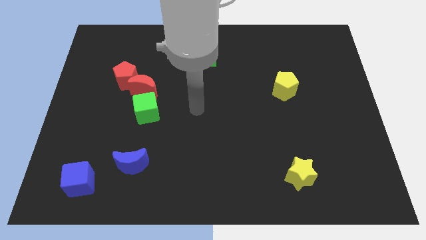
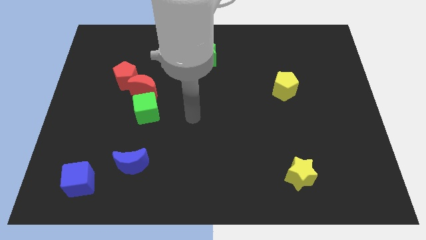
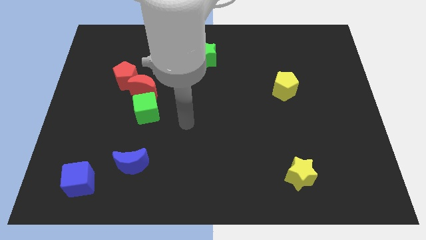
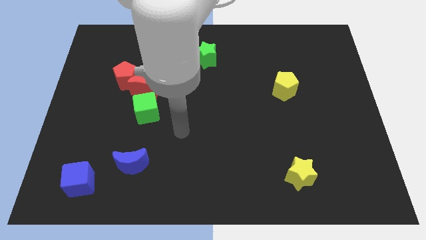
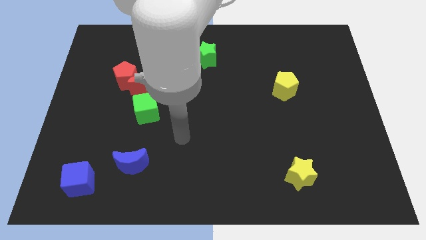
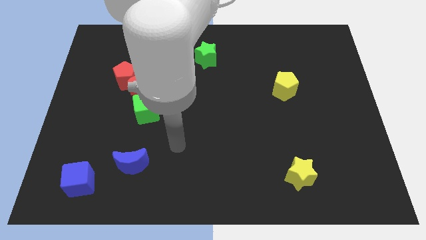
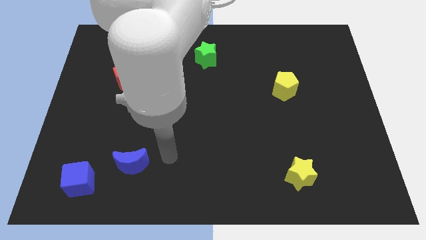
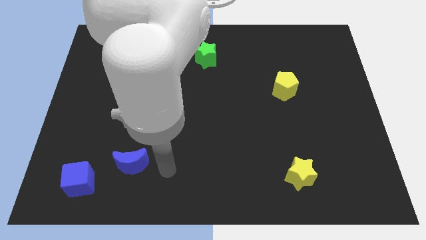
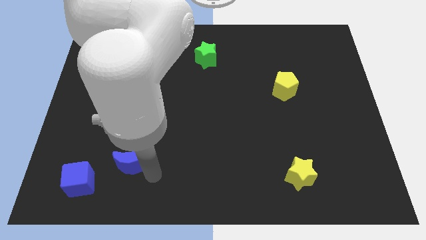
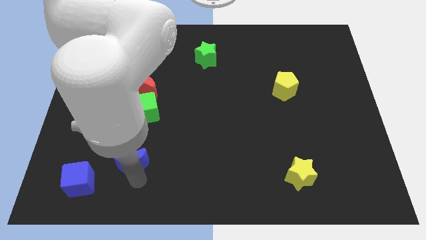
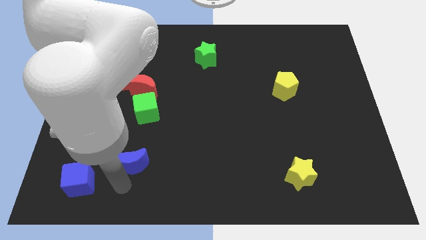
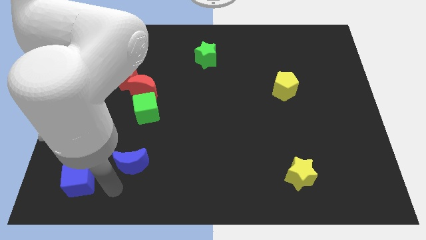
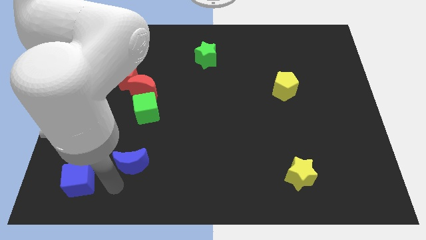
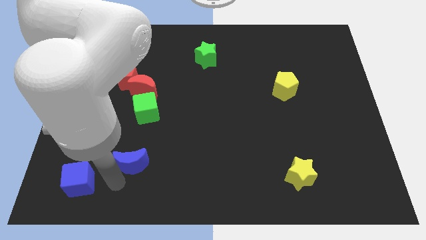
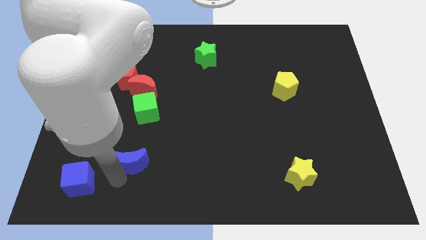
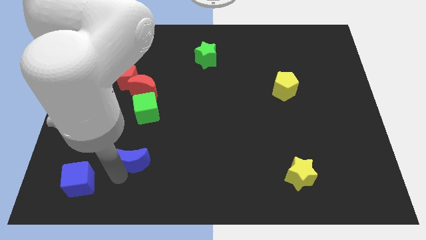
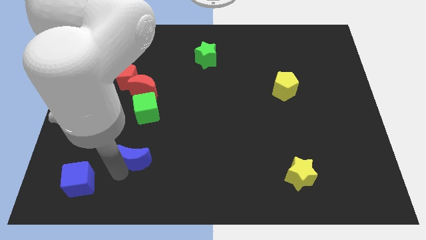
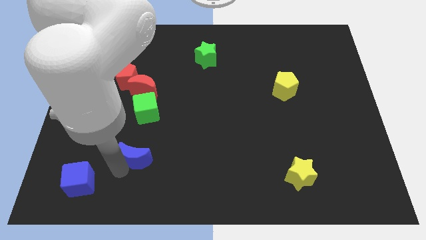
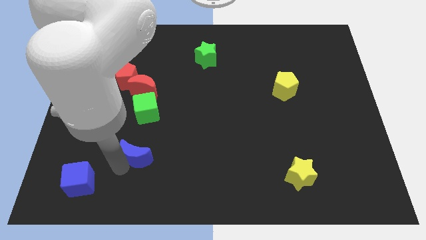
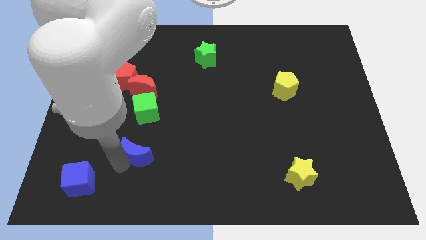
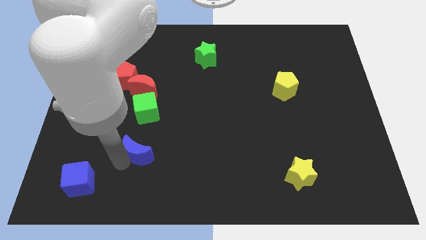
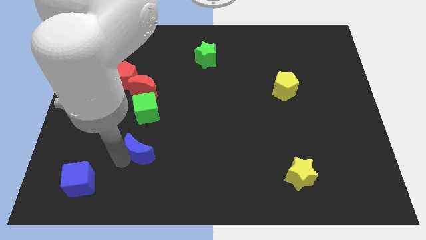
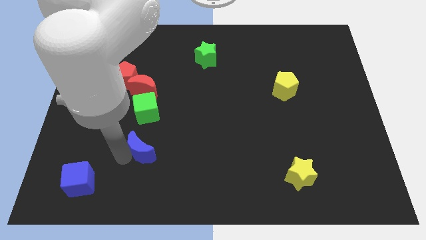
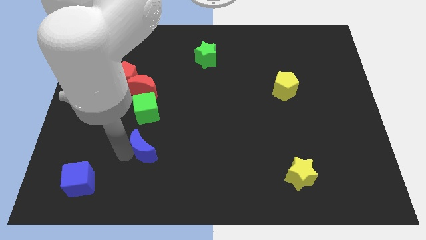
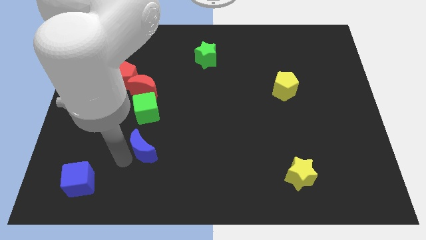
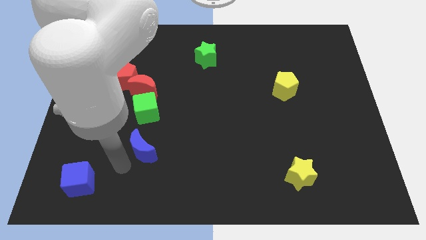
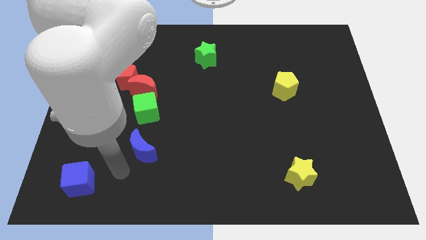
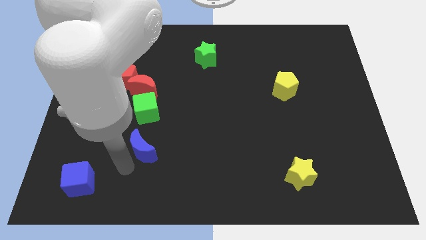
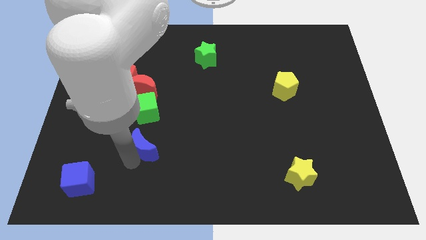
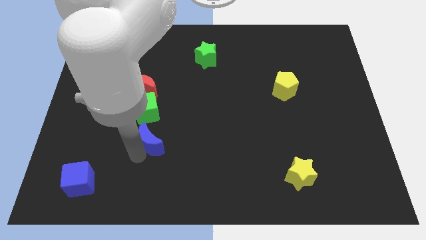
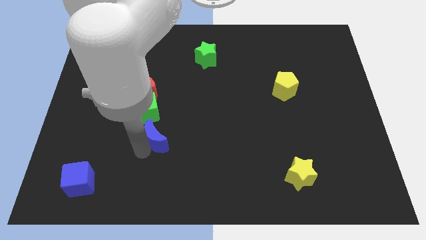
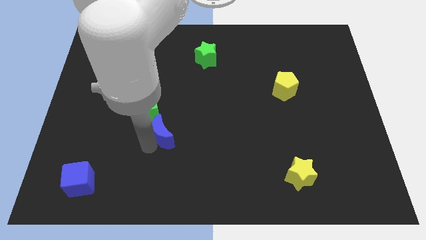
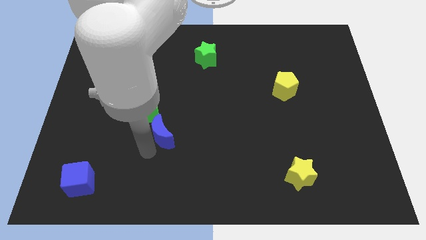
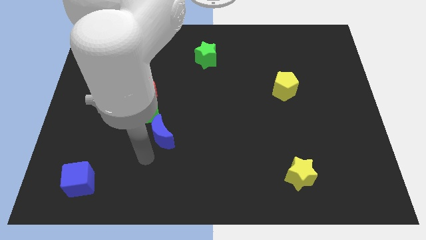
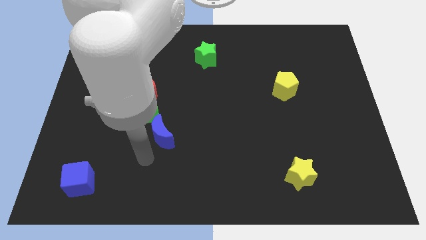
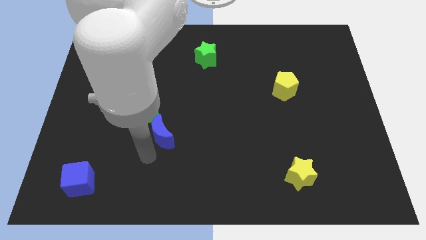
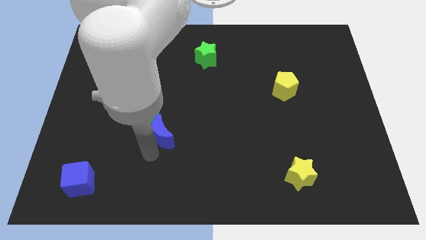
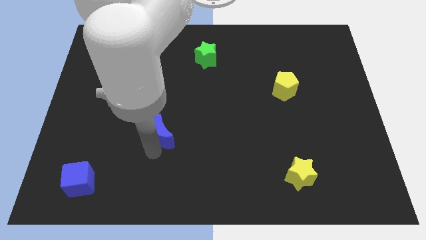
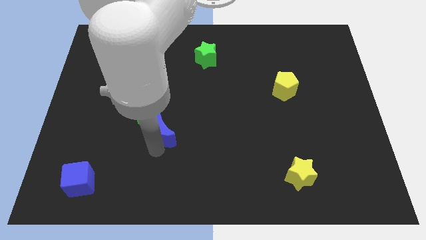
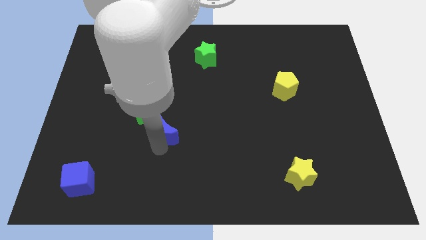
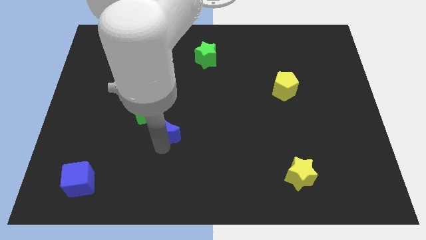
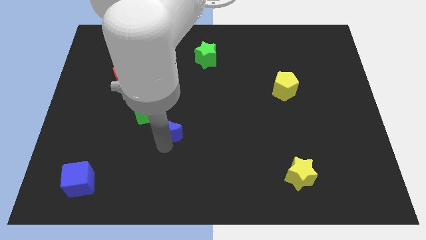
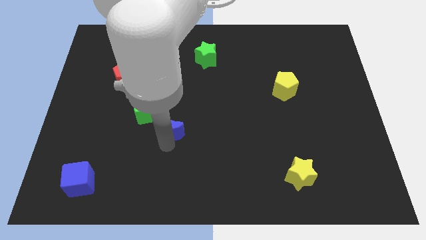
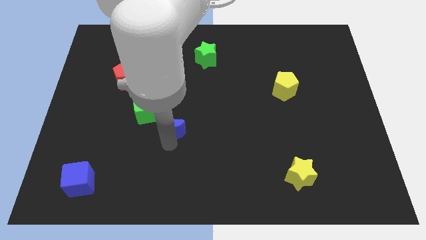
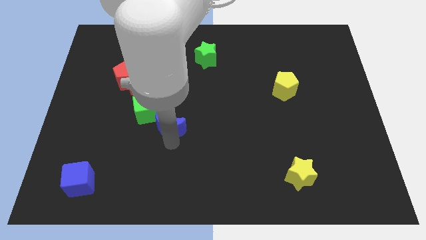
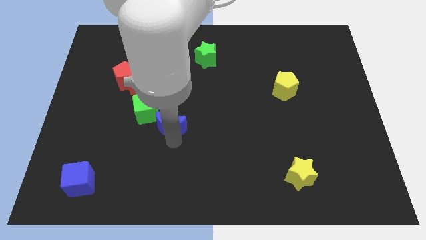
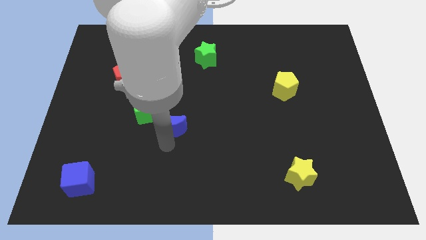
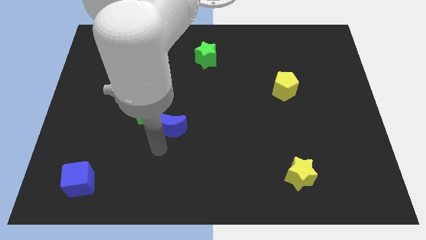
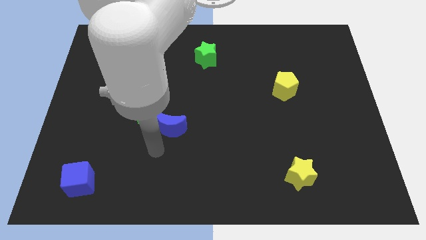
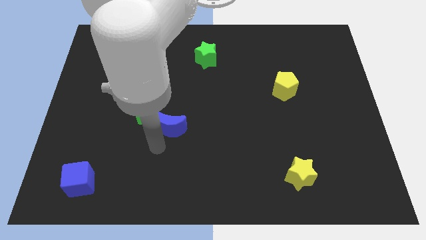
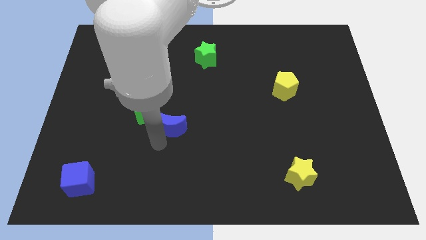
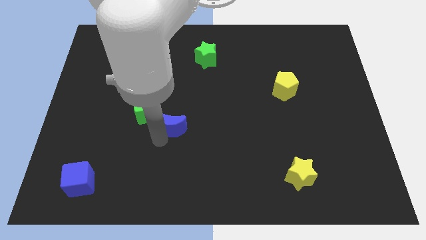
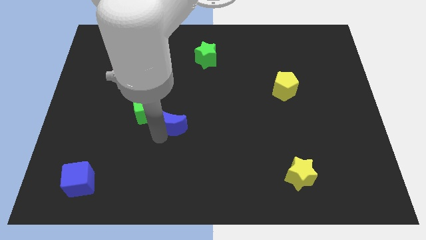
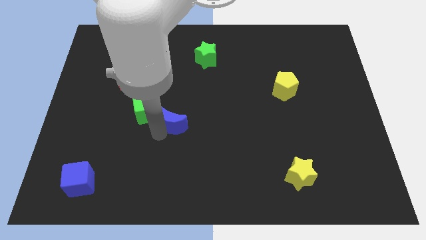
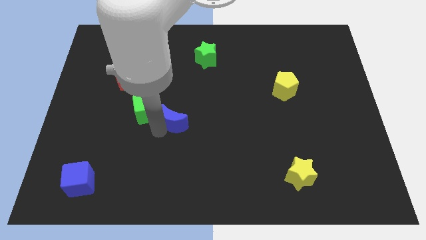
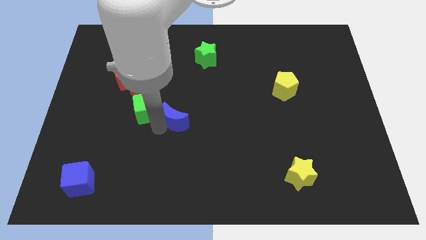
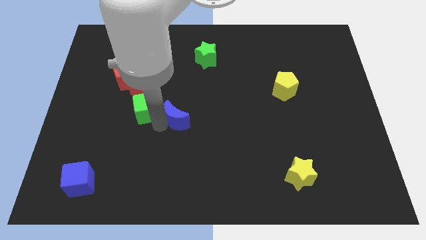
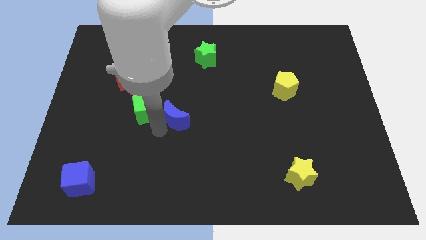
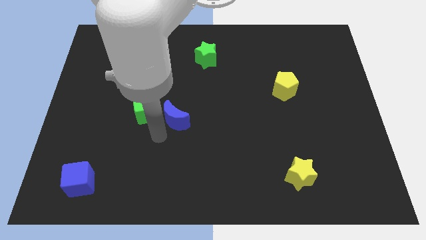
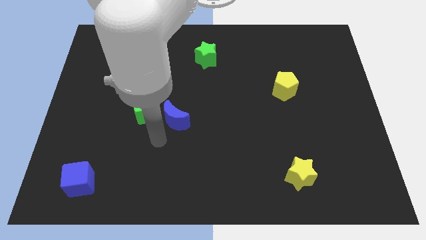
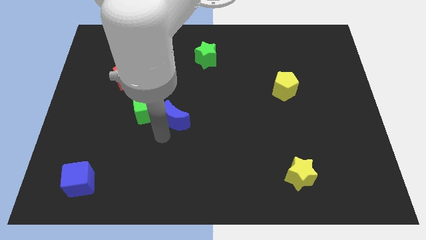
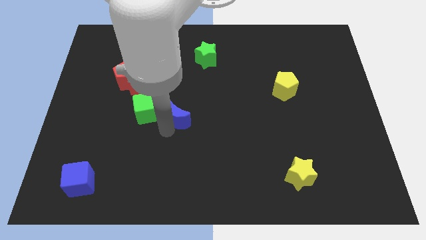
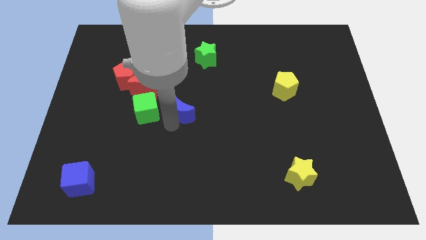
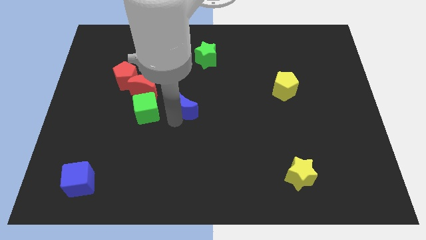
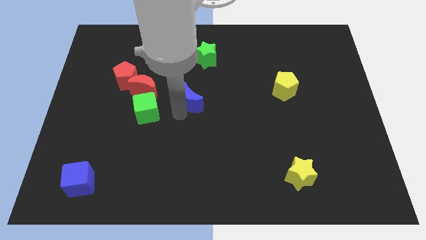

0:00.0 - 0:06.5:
put the blue moon to the bottom side of the green star

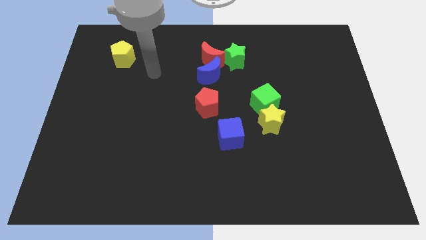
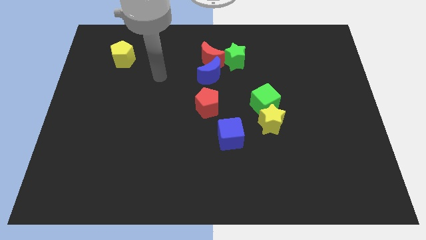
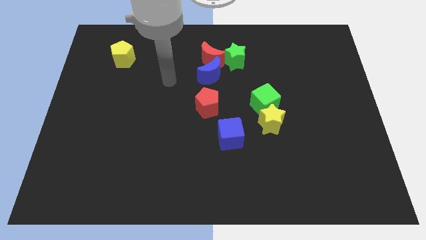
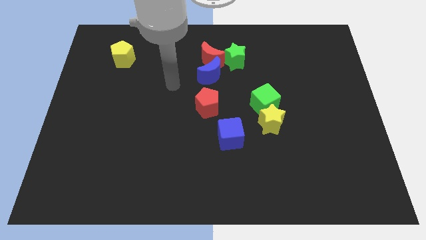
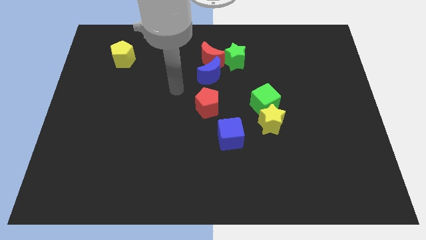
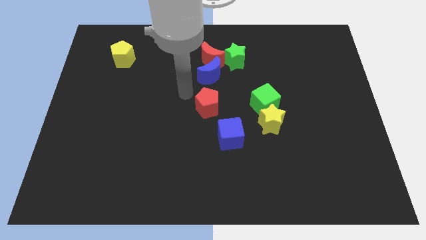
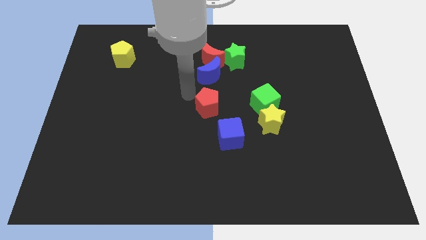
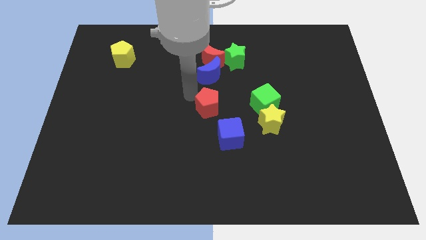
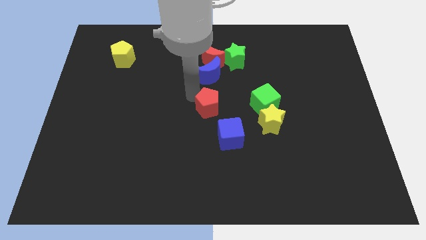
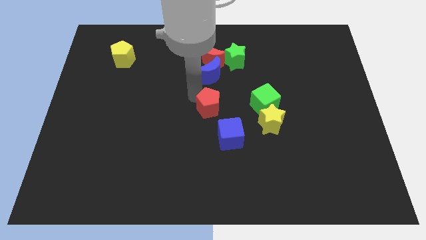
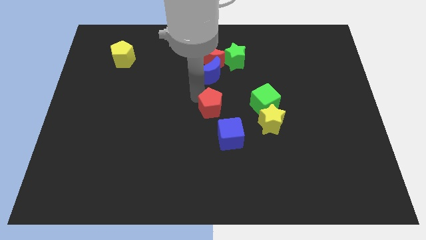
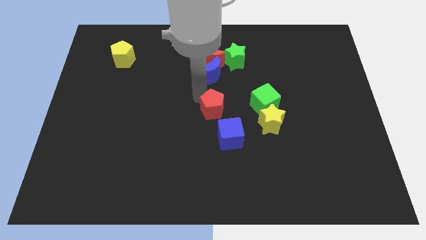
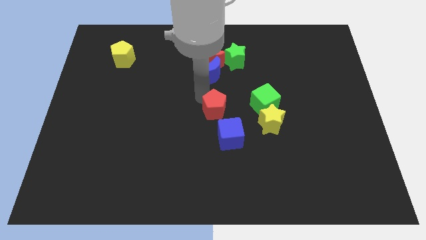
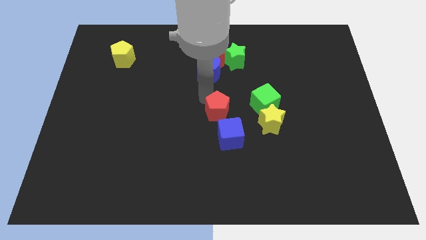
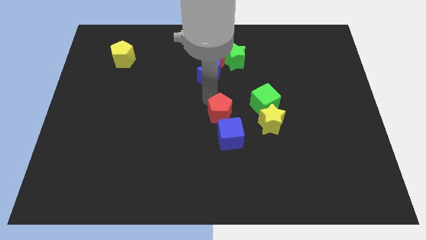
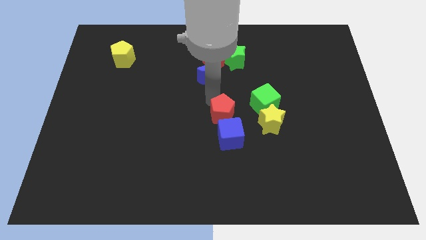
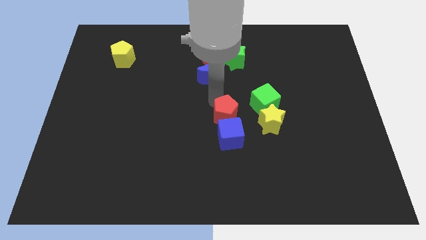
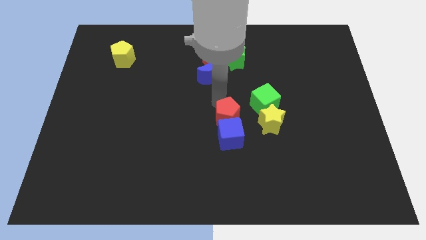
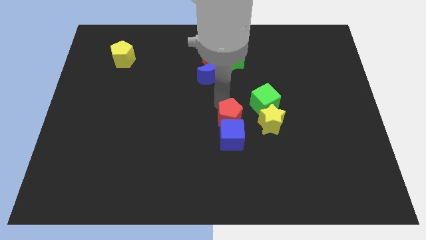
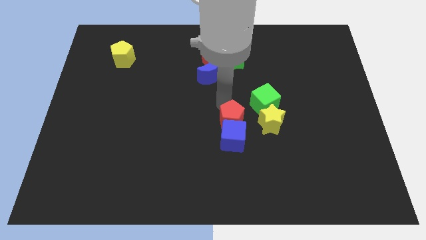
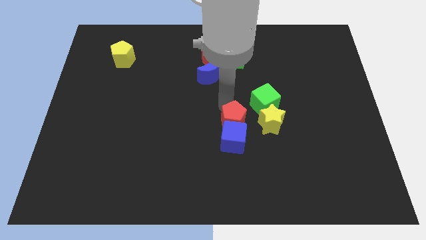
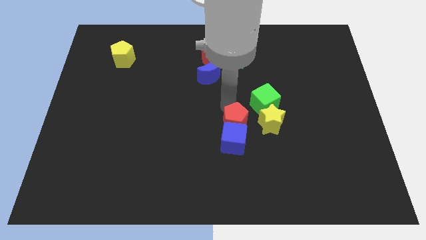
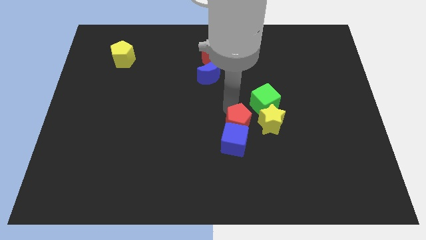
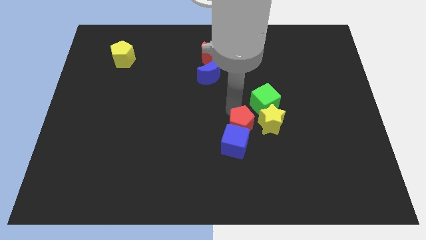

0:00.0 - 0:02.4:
slide the red pentagon to the bottom left side of the yellow star
